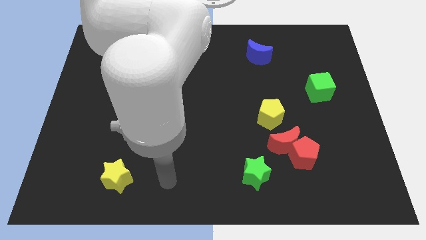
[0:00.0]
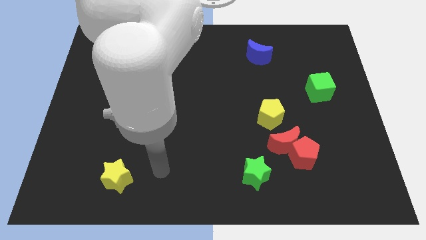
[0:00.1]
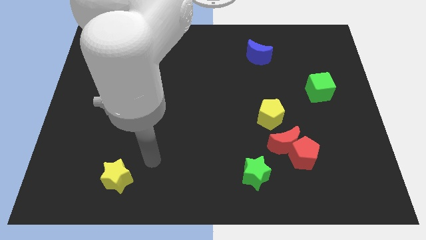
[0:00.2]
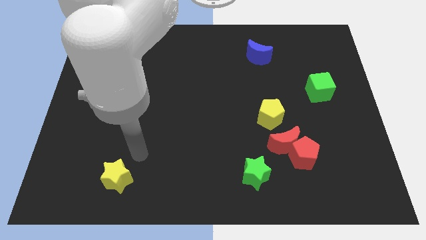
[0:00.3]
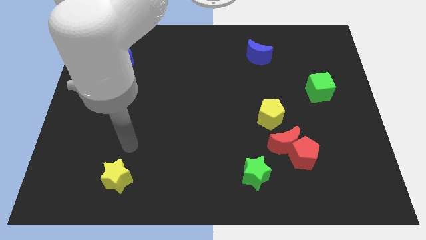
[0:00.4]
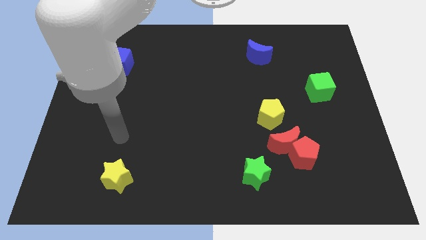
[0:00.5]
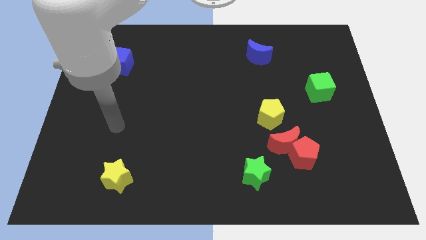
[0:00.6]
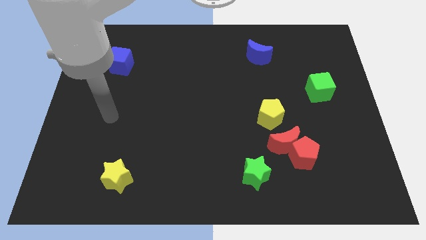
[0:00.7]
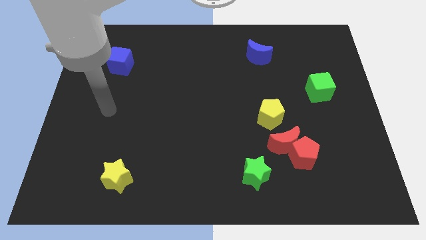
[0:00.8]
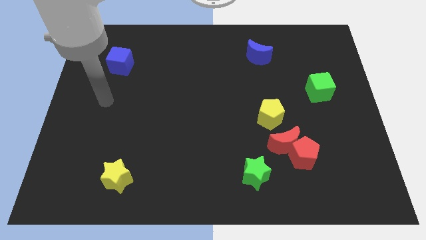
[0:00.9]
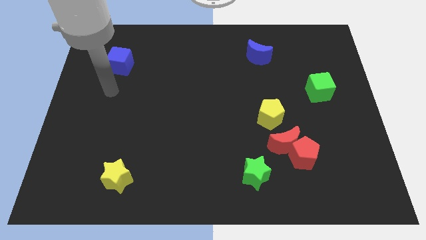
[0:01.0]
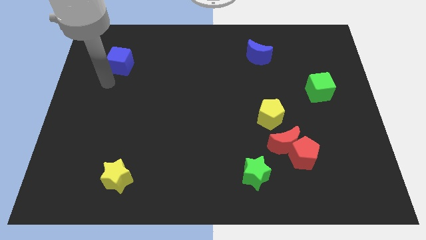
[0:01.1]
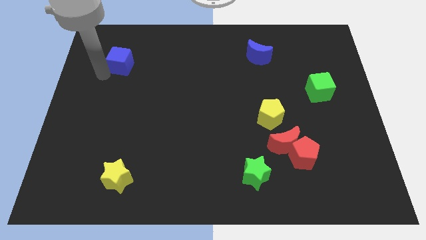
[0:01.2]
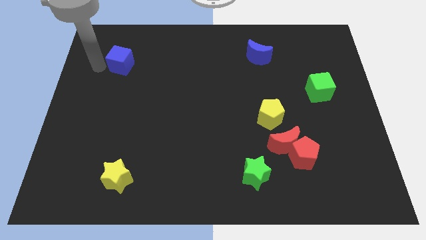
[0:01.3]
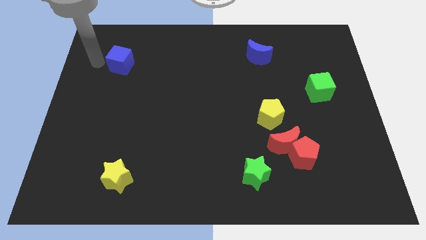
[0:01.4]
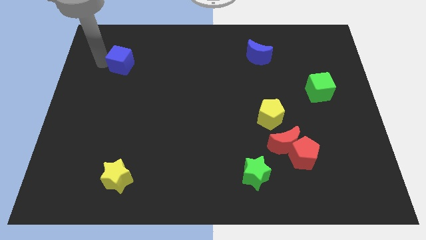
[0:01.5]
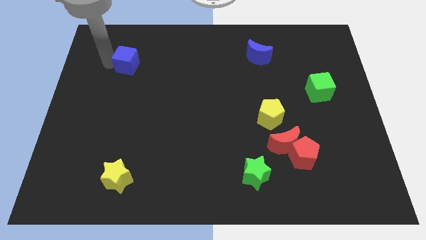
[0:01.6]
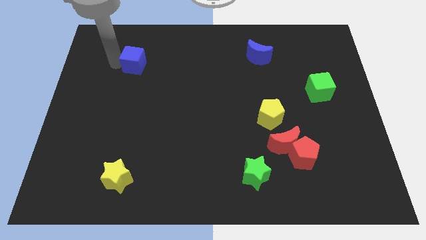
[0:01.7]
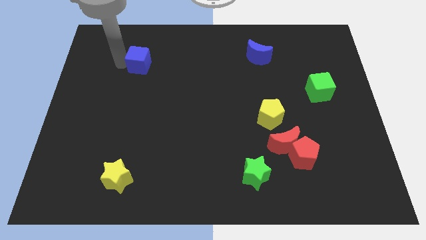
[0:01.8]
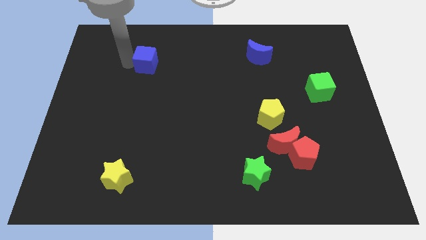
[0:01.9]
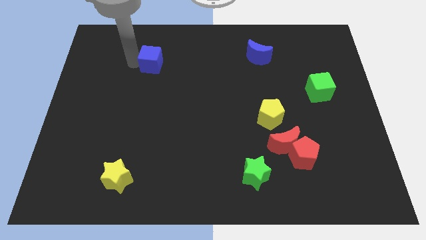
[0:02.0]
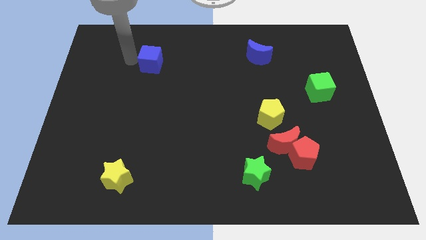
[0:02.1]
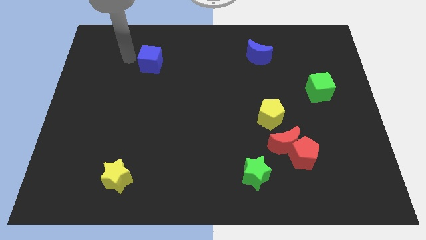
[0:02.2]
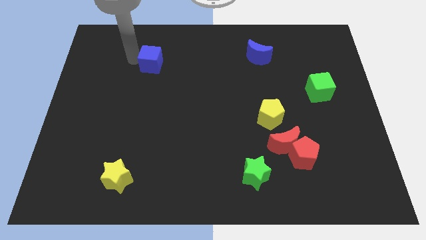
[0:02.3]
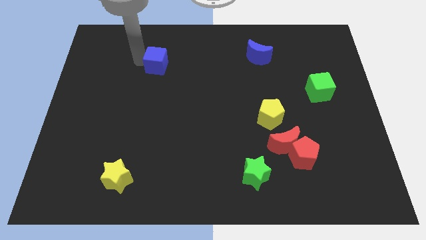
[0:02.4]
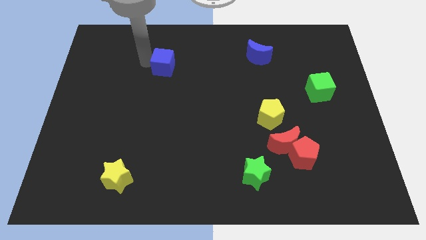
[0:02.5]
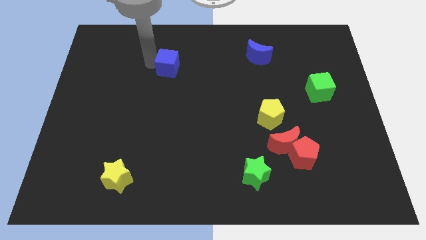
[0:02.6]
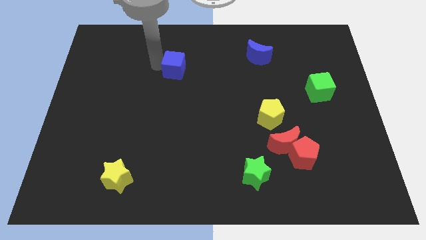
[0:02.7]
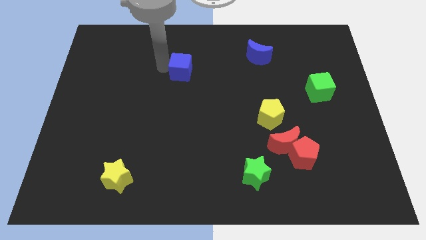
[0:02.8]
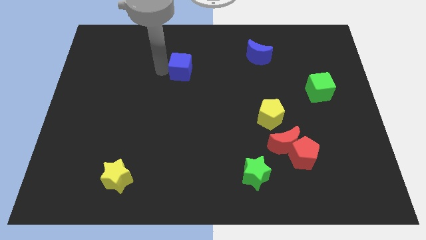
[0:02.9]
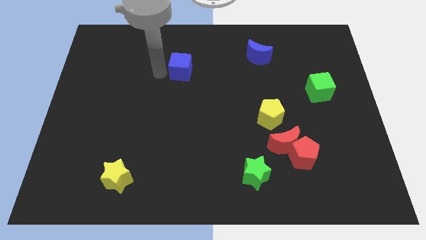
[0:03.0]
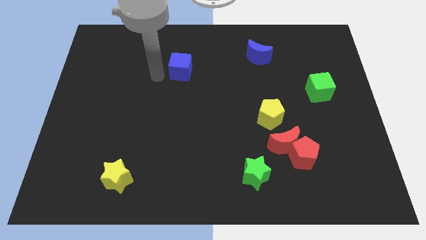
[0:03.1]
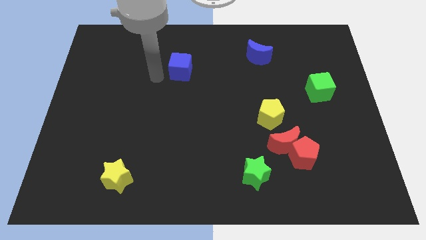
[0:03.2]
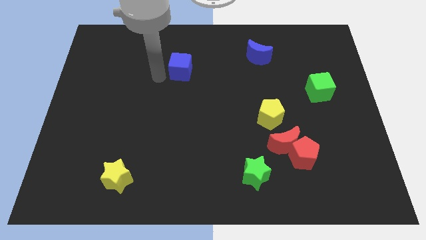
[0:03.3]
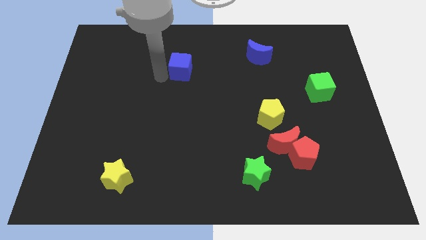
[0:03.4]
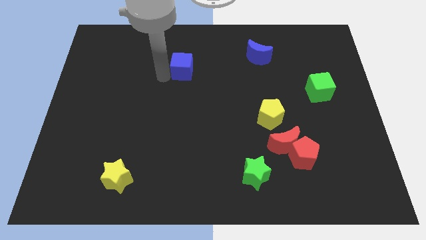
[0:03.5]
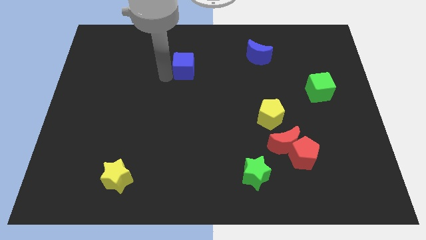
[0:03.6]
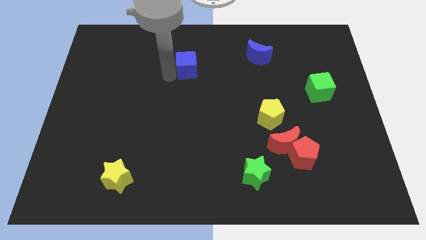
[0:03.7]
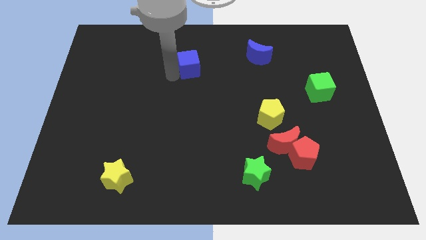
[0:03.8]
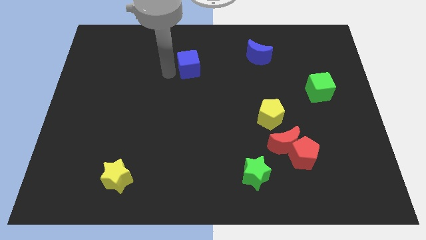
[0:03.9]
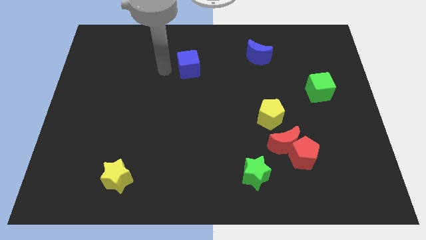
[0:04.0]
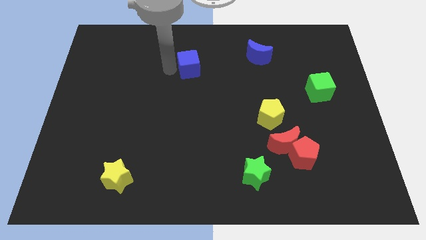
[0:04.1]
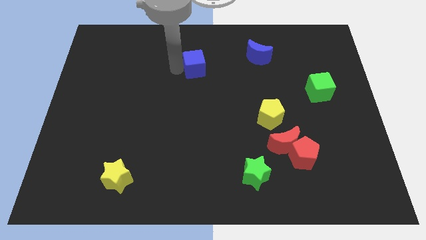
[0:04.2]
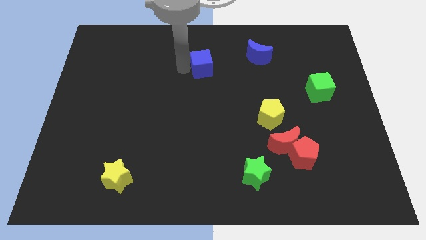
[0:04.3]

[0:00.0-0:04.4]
move the blue cube right

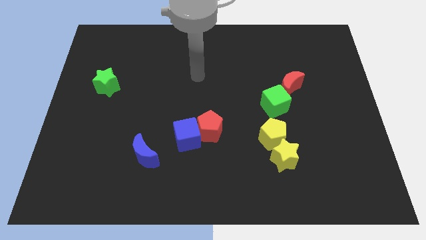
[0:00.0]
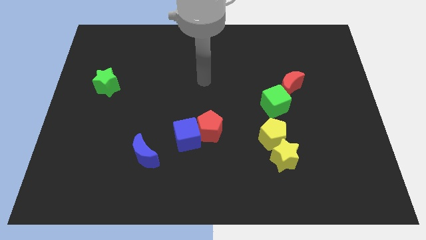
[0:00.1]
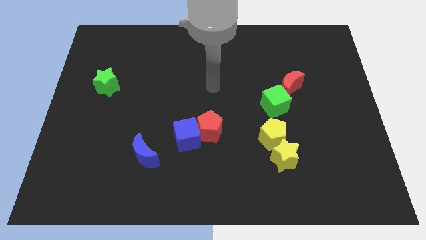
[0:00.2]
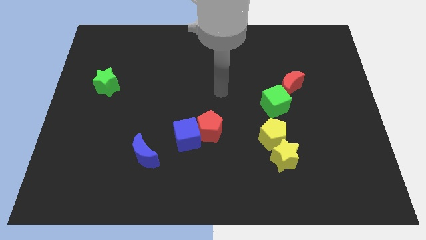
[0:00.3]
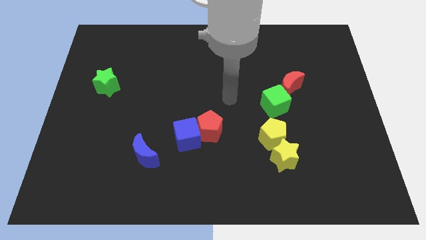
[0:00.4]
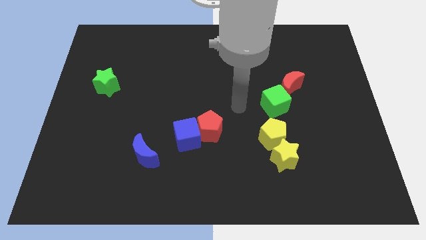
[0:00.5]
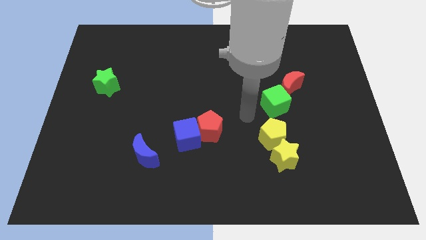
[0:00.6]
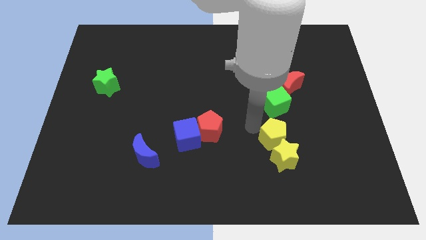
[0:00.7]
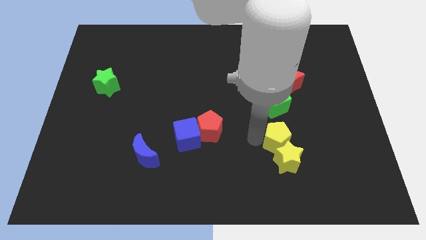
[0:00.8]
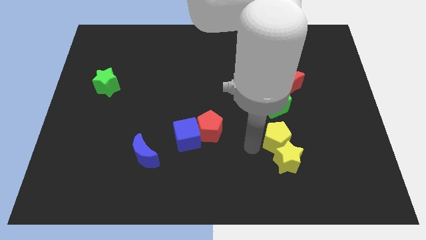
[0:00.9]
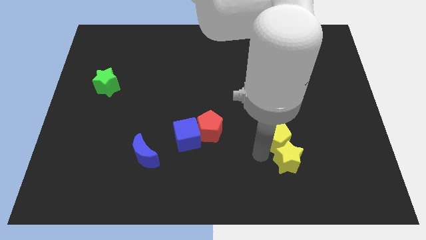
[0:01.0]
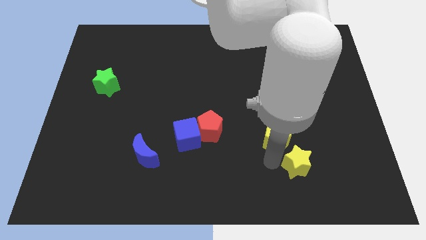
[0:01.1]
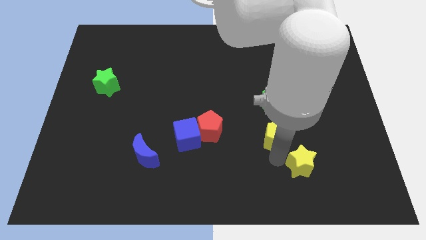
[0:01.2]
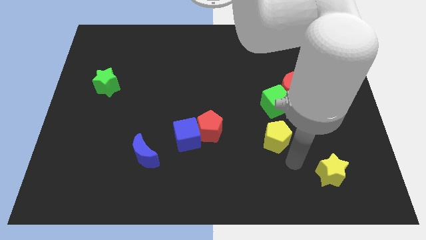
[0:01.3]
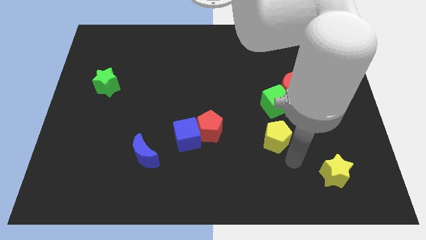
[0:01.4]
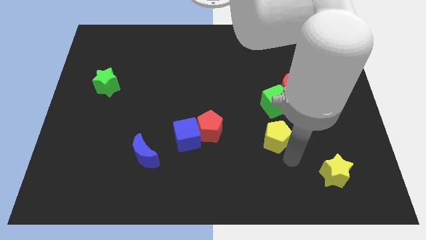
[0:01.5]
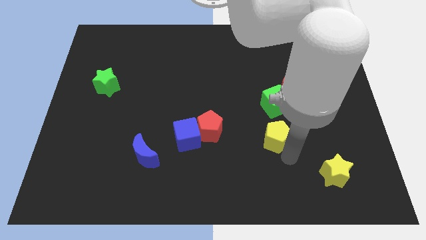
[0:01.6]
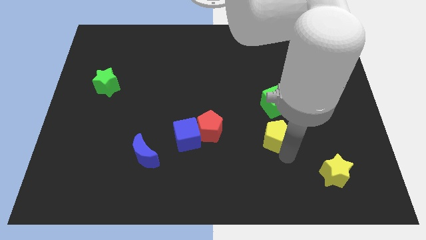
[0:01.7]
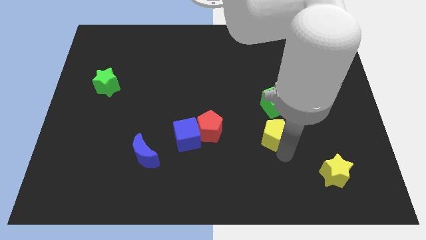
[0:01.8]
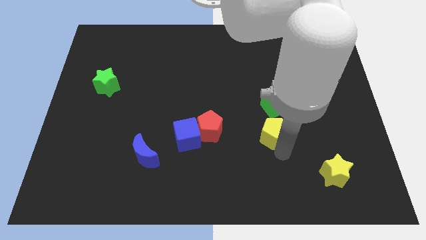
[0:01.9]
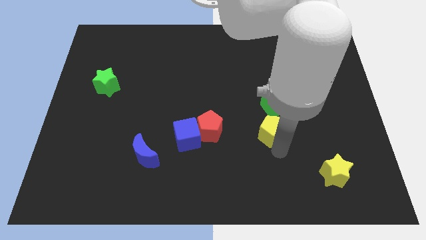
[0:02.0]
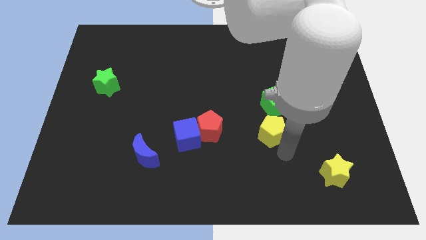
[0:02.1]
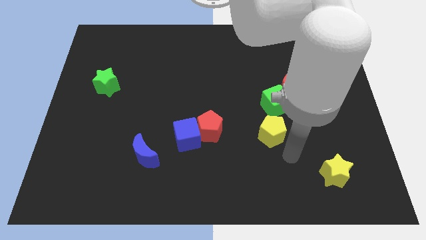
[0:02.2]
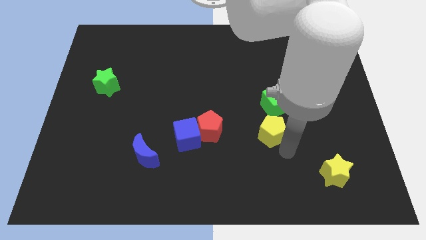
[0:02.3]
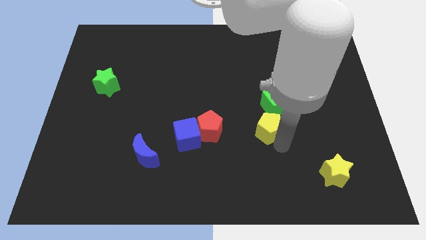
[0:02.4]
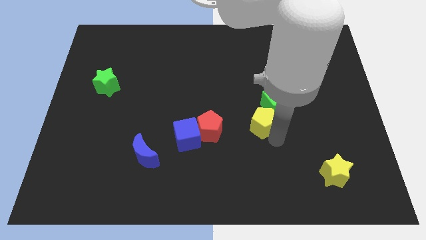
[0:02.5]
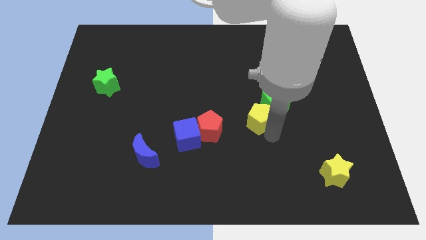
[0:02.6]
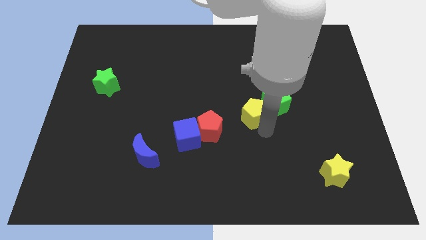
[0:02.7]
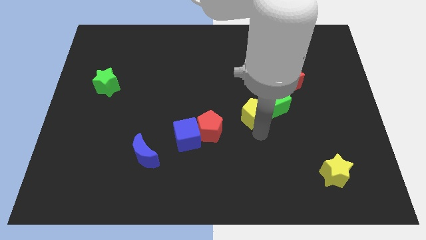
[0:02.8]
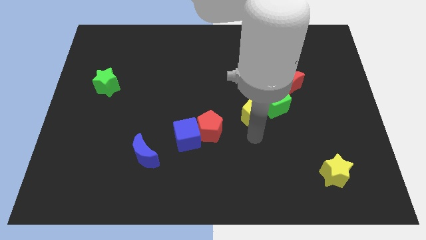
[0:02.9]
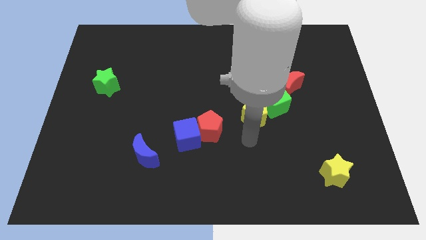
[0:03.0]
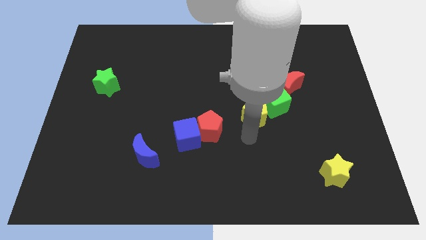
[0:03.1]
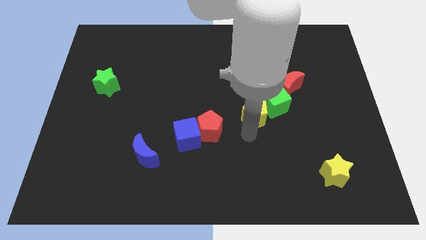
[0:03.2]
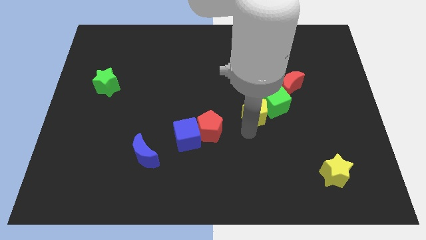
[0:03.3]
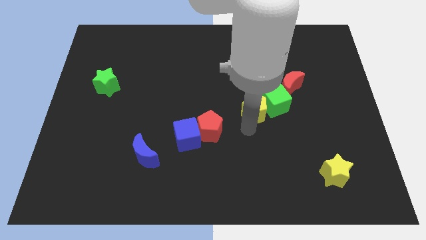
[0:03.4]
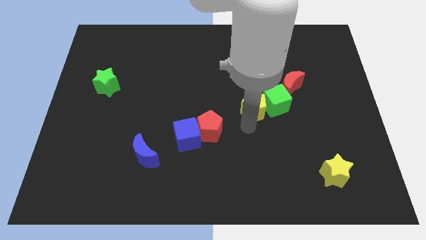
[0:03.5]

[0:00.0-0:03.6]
slightly move the yellow pentagon up
